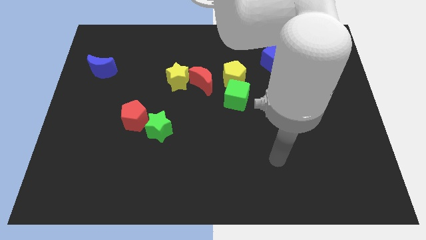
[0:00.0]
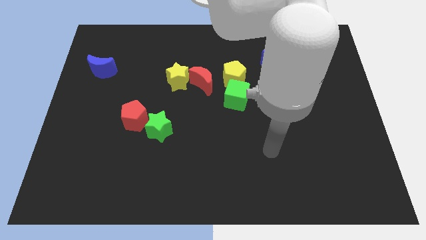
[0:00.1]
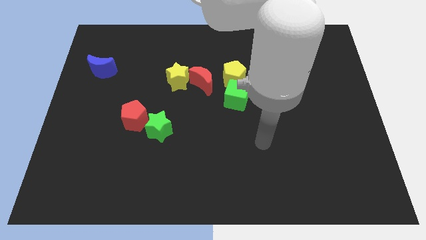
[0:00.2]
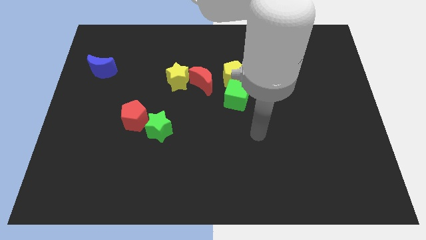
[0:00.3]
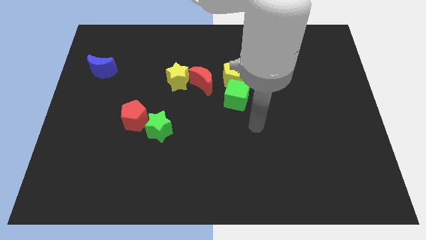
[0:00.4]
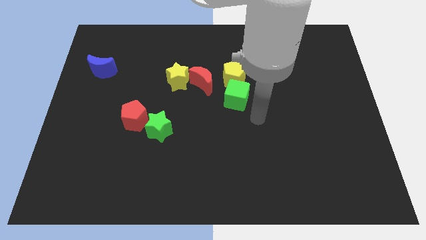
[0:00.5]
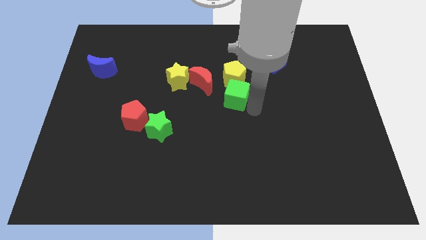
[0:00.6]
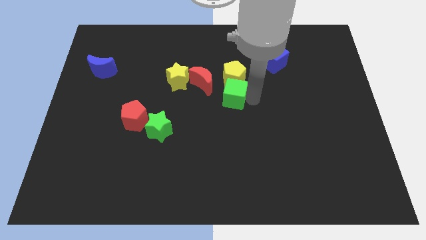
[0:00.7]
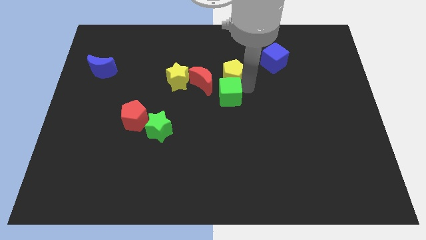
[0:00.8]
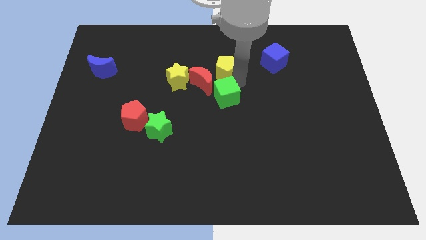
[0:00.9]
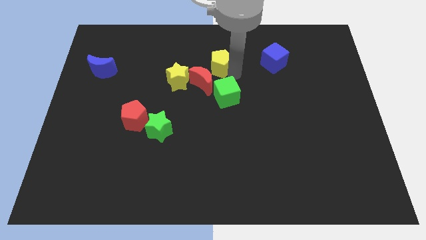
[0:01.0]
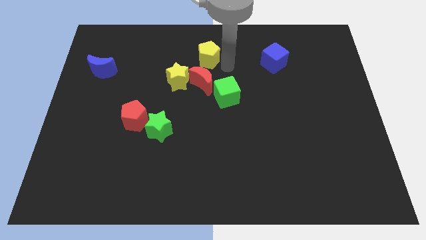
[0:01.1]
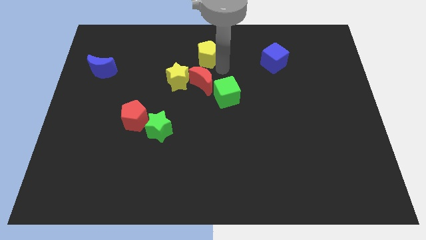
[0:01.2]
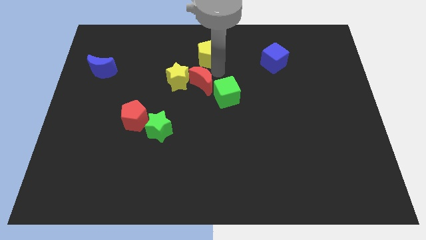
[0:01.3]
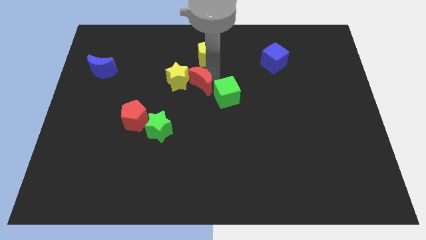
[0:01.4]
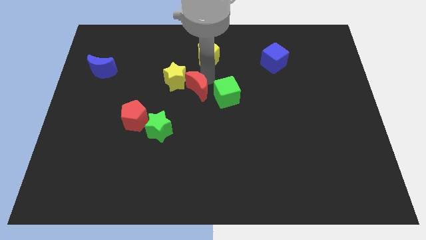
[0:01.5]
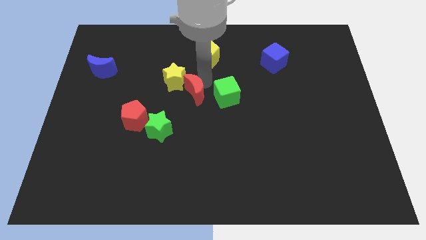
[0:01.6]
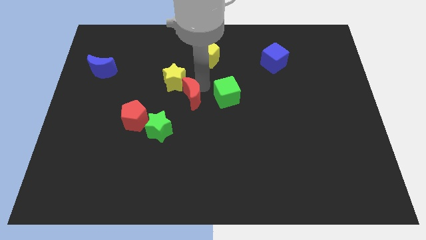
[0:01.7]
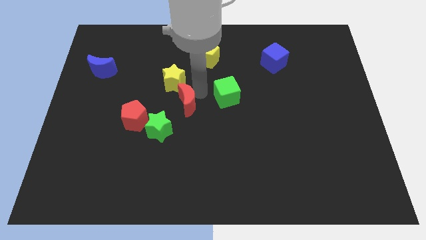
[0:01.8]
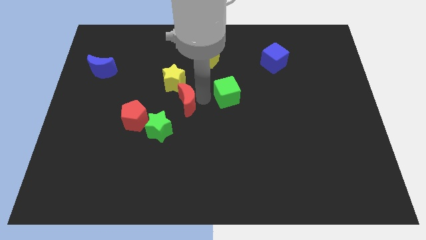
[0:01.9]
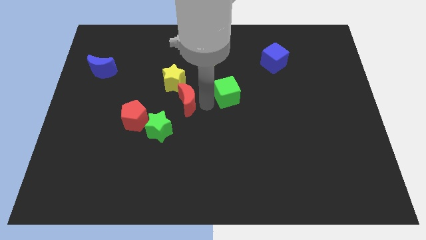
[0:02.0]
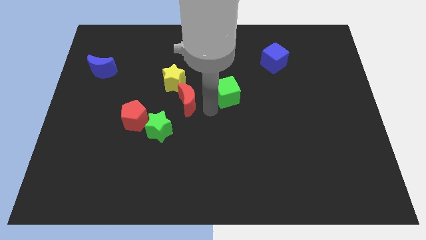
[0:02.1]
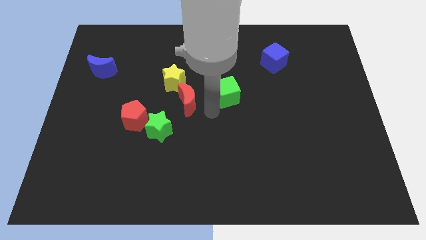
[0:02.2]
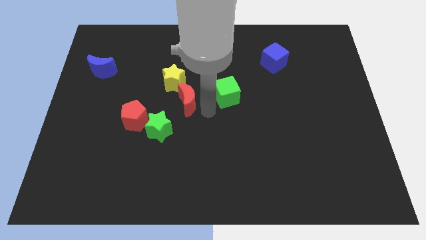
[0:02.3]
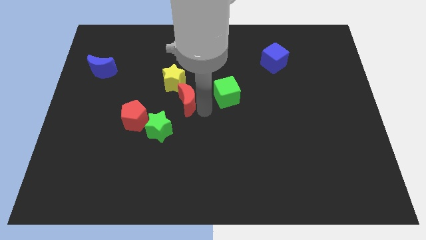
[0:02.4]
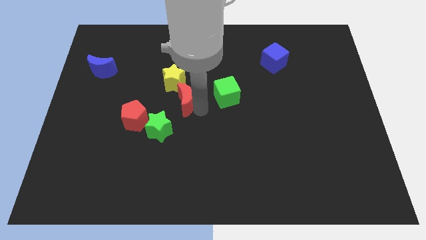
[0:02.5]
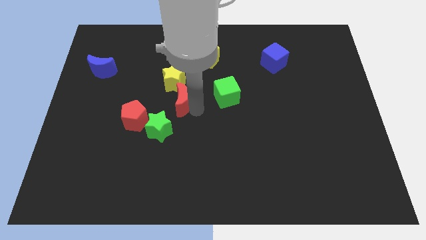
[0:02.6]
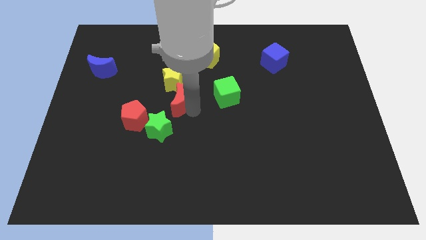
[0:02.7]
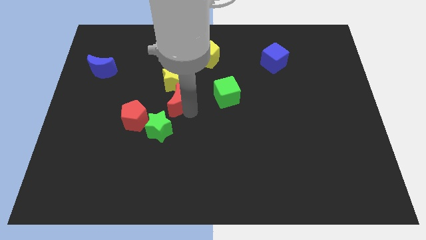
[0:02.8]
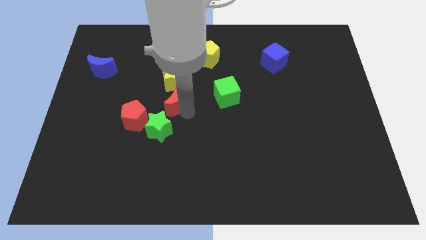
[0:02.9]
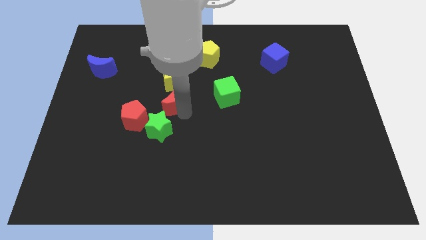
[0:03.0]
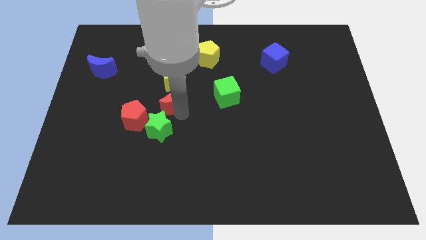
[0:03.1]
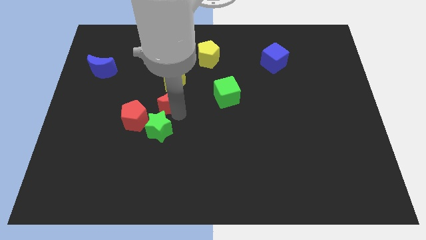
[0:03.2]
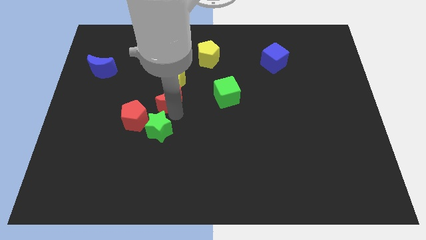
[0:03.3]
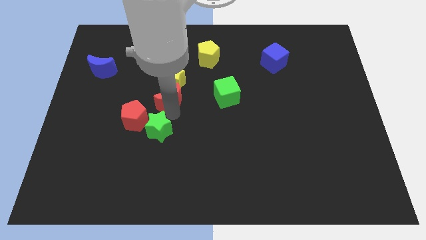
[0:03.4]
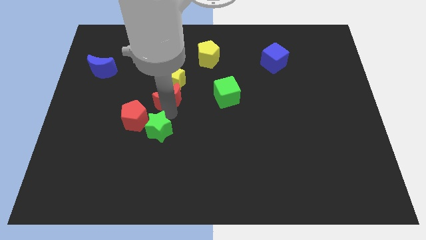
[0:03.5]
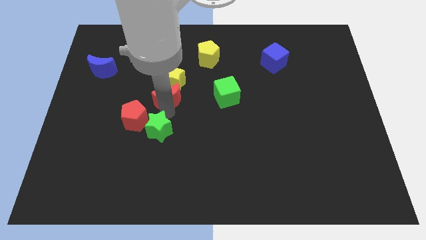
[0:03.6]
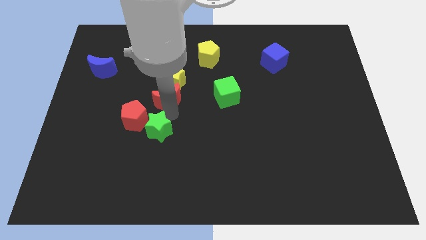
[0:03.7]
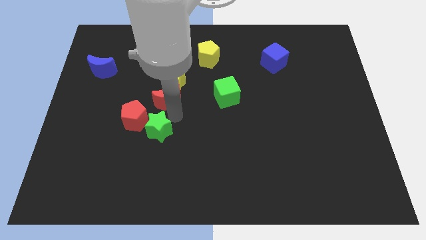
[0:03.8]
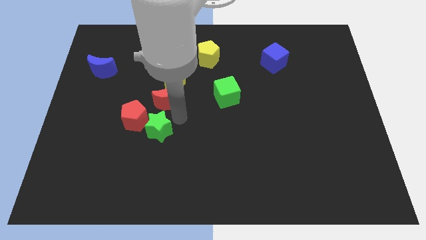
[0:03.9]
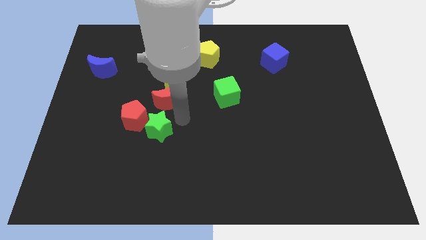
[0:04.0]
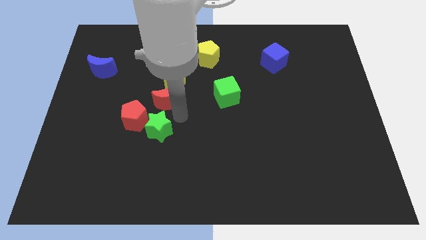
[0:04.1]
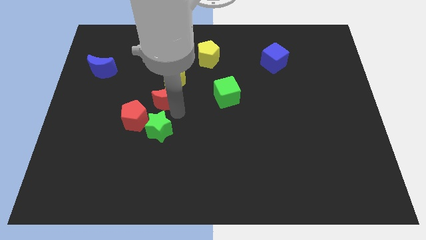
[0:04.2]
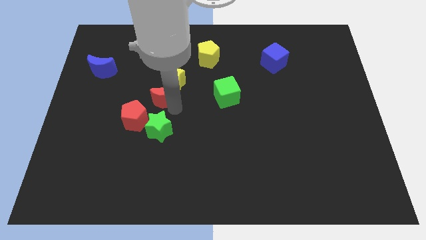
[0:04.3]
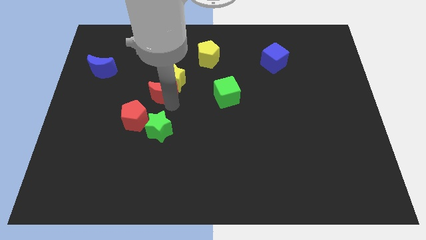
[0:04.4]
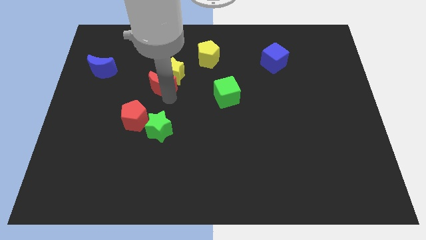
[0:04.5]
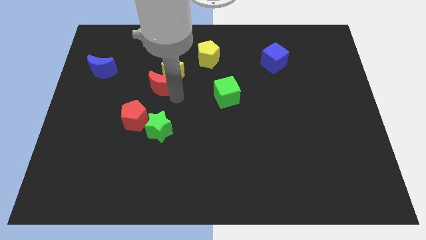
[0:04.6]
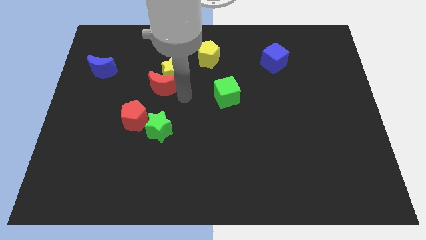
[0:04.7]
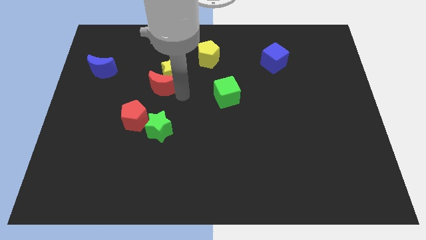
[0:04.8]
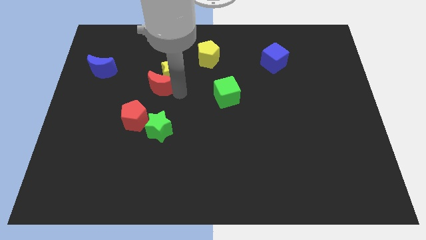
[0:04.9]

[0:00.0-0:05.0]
slide the red moon just left of the yellow star

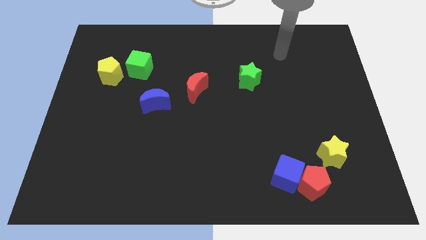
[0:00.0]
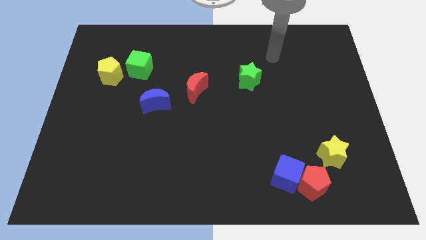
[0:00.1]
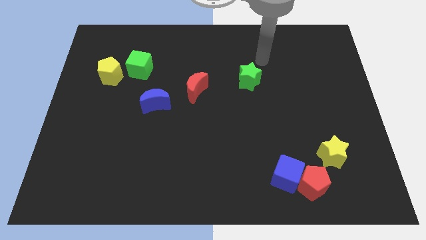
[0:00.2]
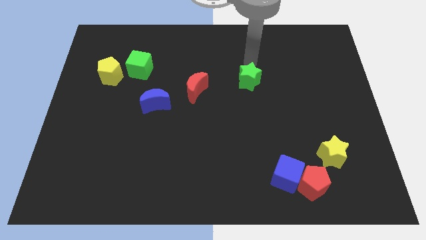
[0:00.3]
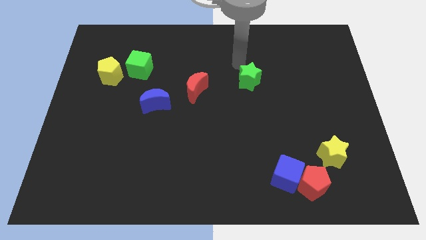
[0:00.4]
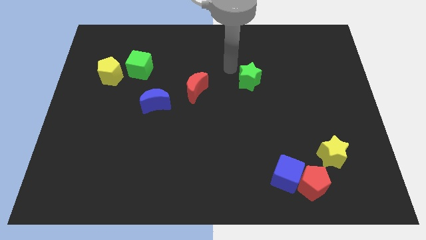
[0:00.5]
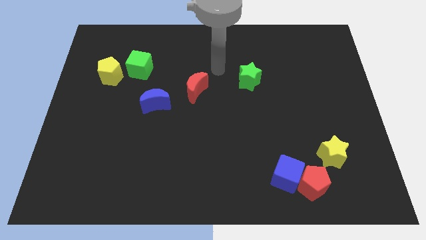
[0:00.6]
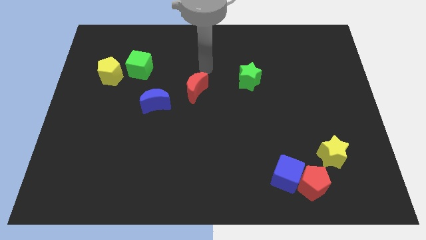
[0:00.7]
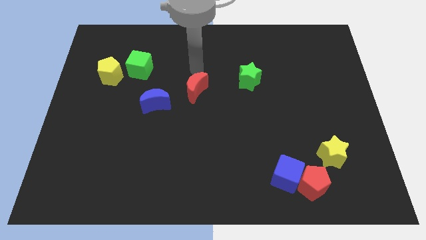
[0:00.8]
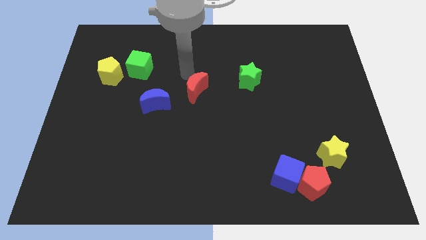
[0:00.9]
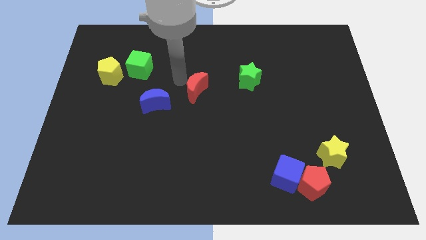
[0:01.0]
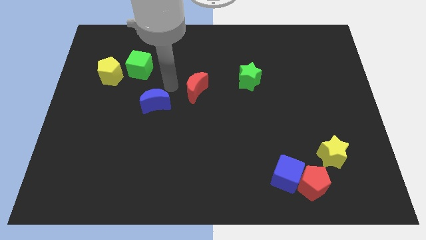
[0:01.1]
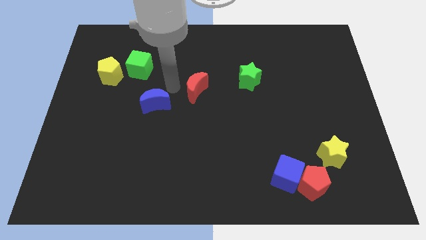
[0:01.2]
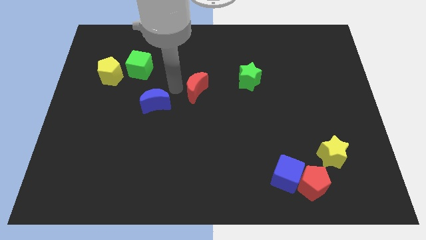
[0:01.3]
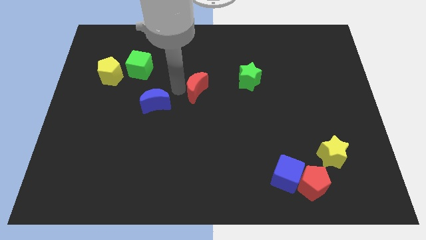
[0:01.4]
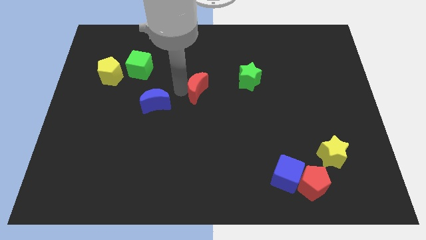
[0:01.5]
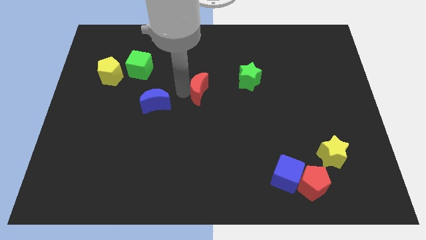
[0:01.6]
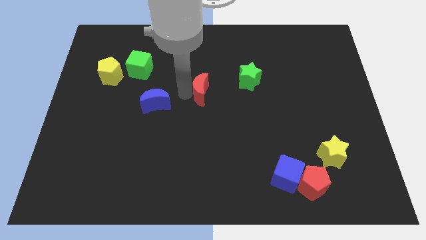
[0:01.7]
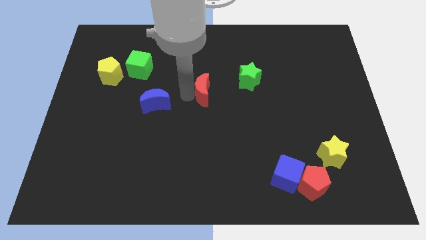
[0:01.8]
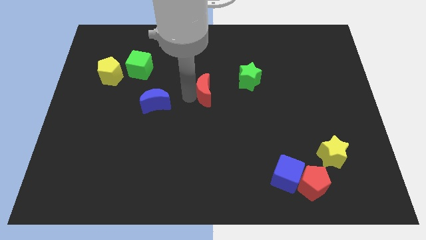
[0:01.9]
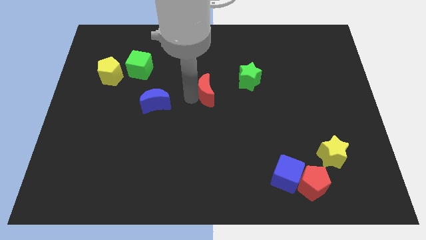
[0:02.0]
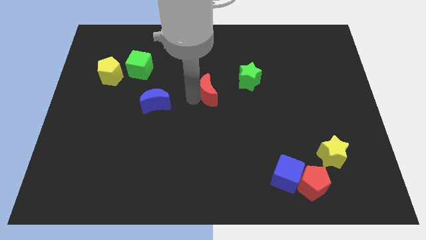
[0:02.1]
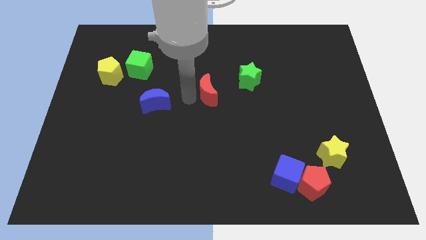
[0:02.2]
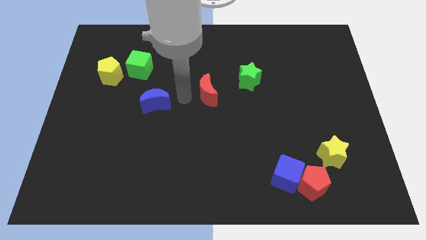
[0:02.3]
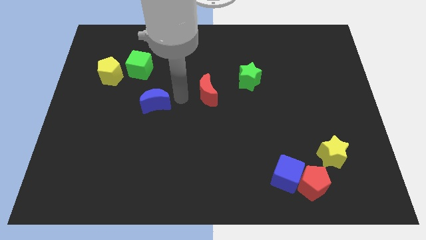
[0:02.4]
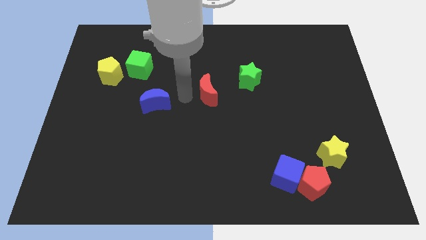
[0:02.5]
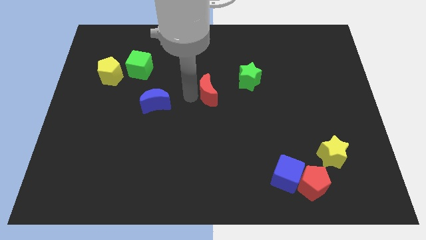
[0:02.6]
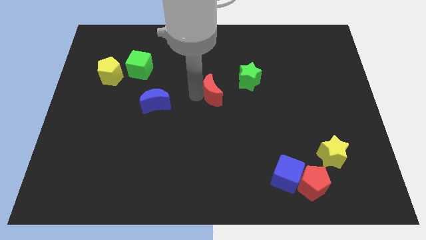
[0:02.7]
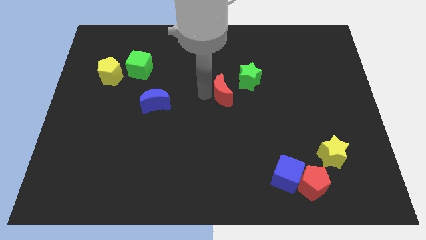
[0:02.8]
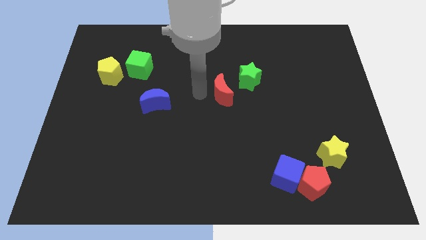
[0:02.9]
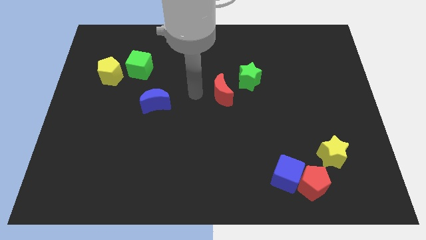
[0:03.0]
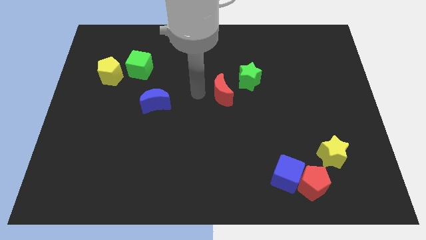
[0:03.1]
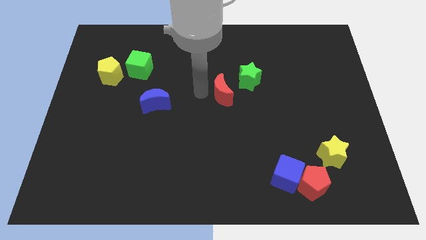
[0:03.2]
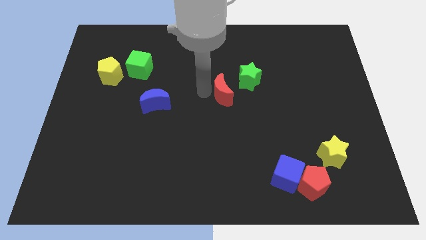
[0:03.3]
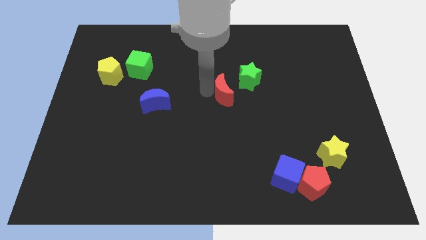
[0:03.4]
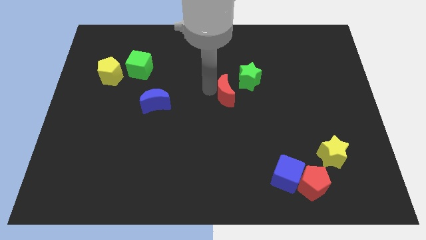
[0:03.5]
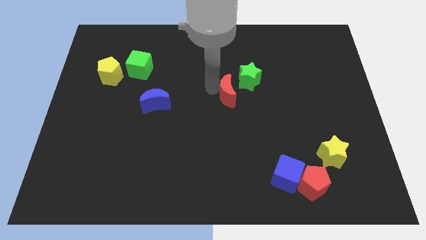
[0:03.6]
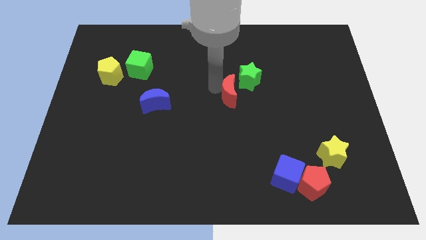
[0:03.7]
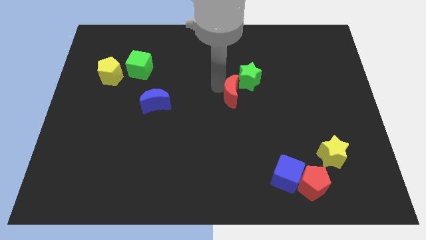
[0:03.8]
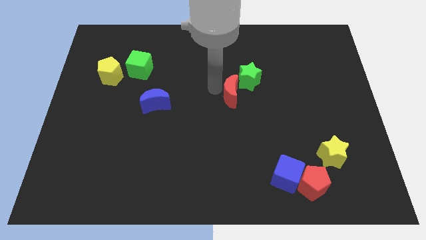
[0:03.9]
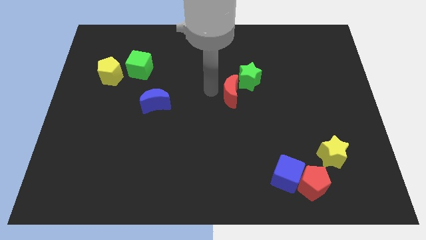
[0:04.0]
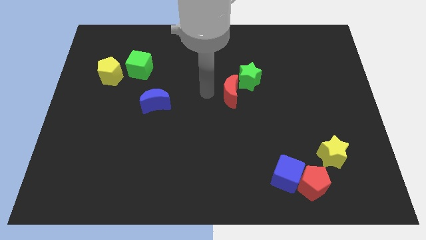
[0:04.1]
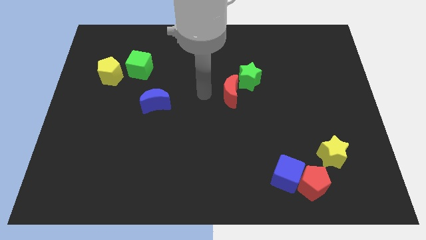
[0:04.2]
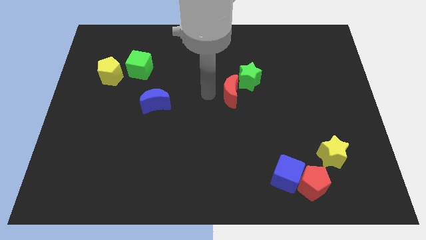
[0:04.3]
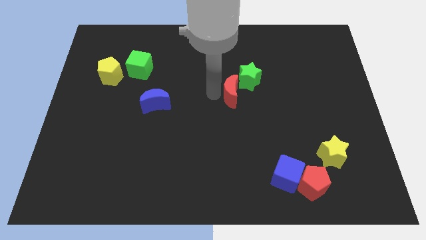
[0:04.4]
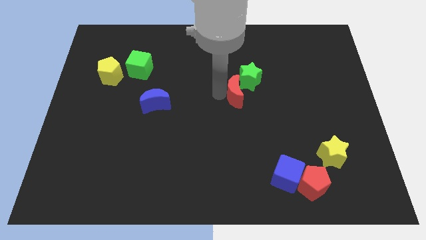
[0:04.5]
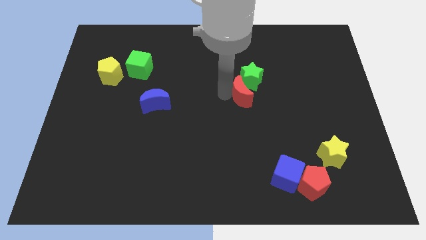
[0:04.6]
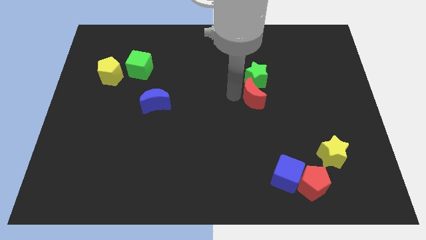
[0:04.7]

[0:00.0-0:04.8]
push the red moon to the bottom right of the green star
